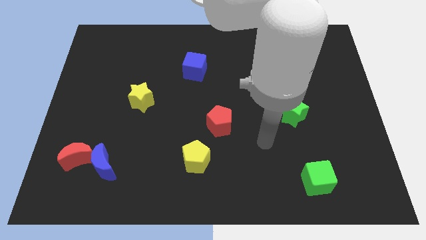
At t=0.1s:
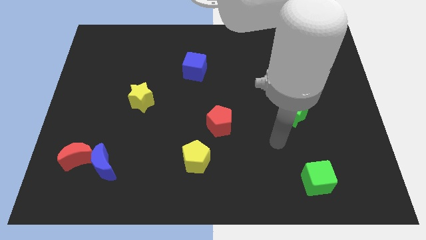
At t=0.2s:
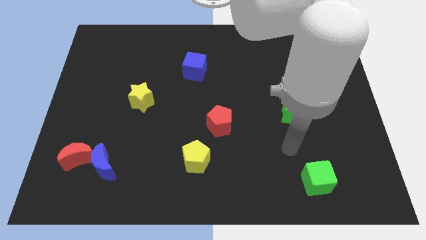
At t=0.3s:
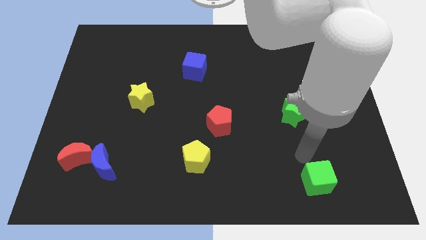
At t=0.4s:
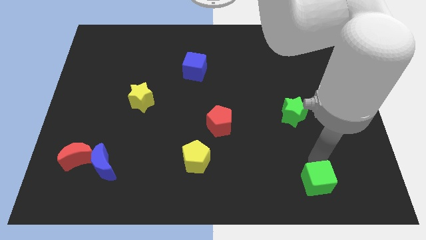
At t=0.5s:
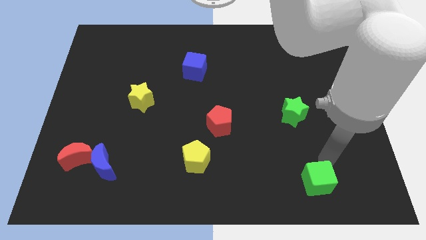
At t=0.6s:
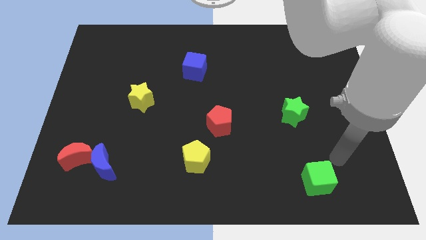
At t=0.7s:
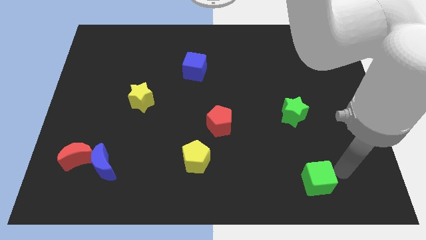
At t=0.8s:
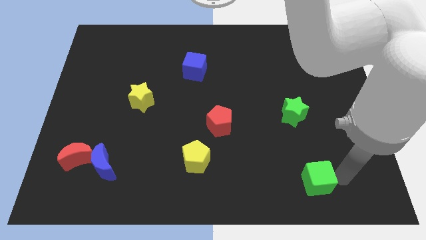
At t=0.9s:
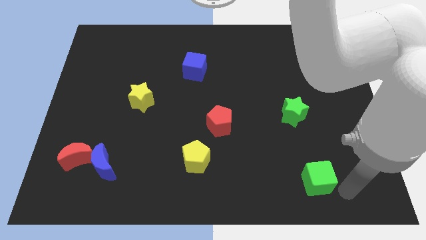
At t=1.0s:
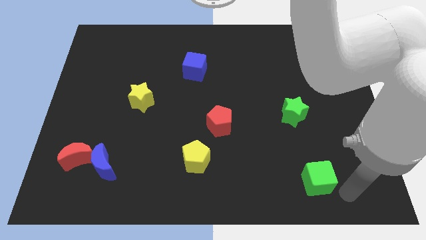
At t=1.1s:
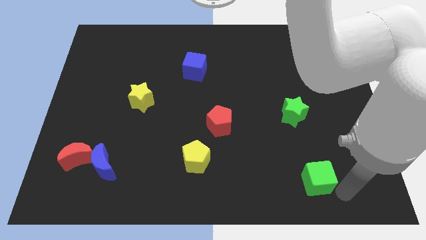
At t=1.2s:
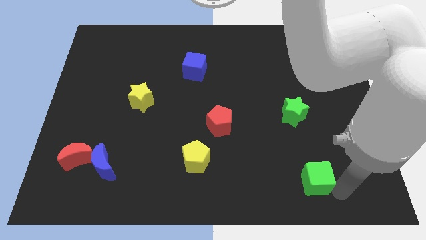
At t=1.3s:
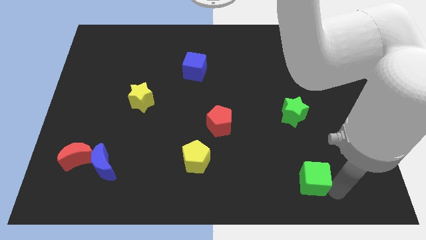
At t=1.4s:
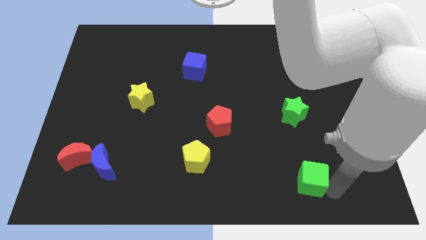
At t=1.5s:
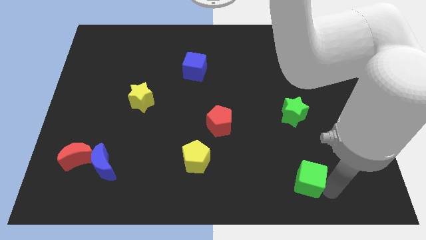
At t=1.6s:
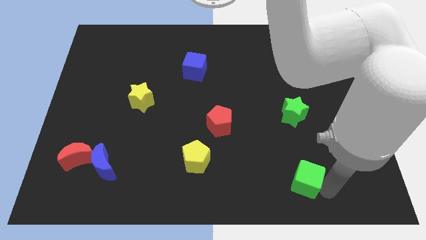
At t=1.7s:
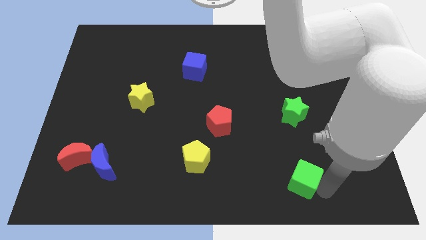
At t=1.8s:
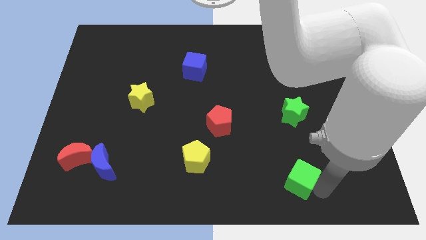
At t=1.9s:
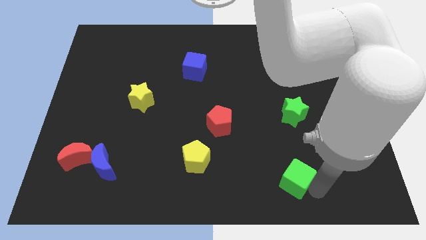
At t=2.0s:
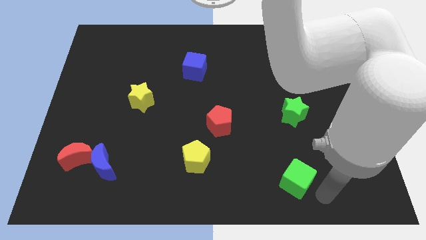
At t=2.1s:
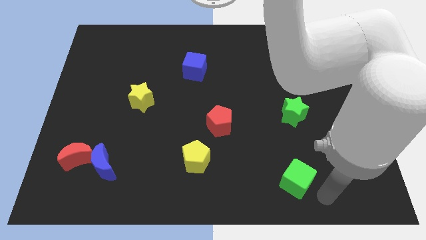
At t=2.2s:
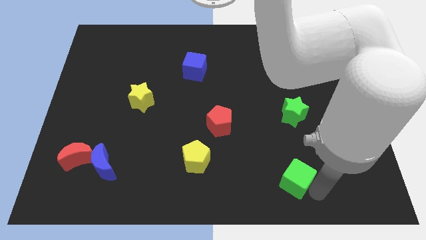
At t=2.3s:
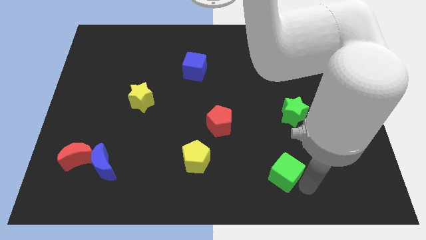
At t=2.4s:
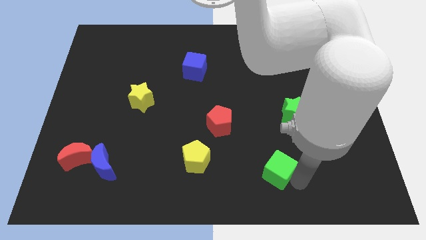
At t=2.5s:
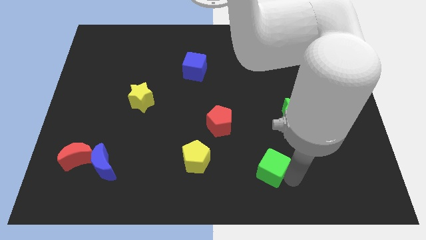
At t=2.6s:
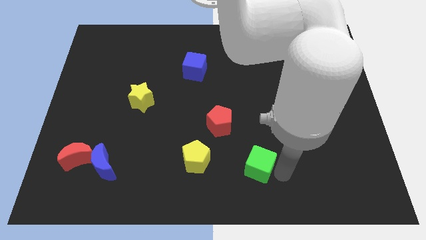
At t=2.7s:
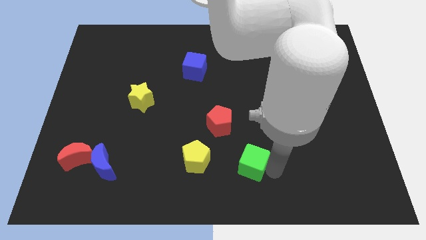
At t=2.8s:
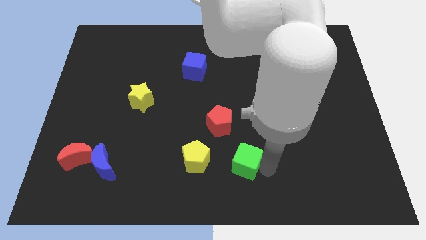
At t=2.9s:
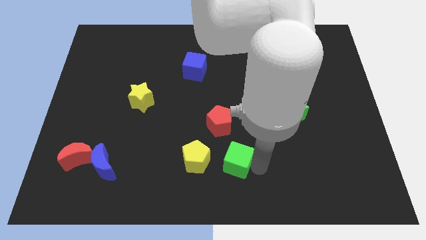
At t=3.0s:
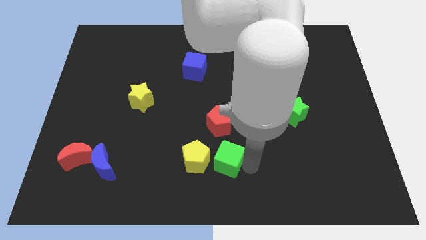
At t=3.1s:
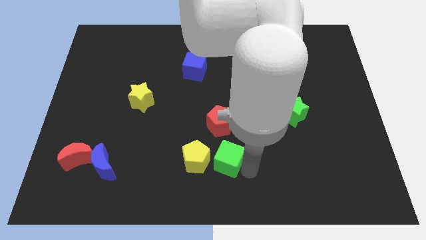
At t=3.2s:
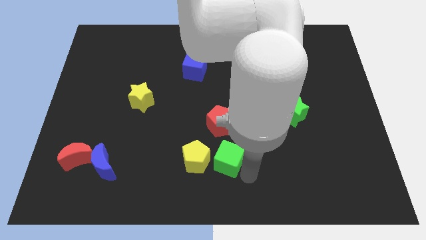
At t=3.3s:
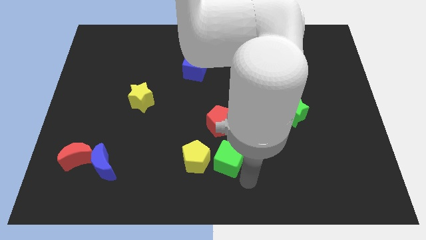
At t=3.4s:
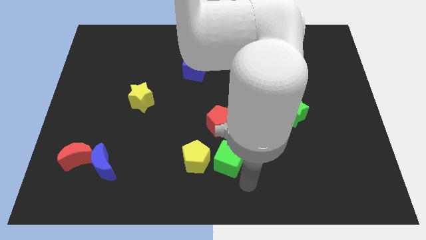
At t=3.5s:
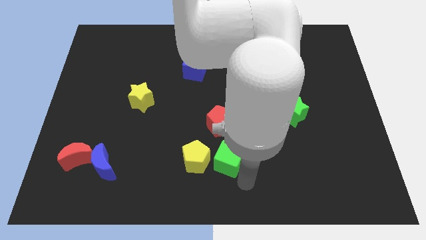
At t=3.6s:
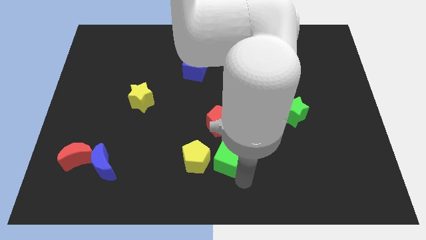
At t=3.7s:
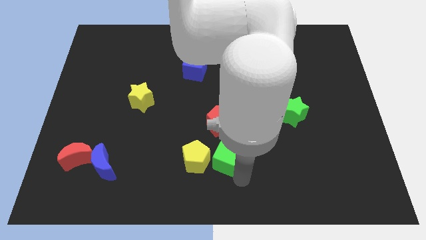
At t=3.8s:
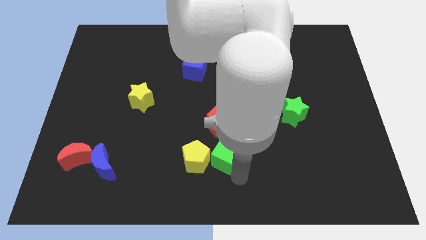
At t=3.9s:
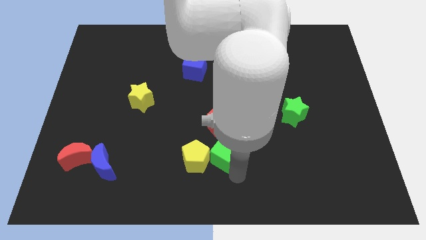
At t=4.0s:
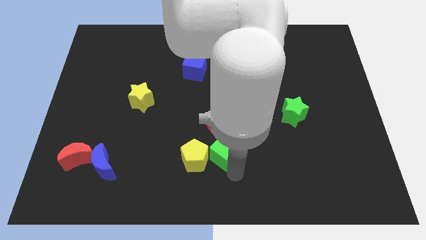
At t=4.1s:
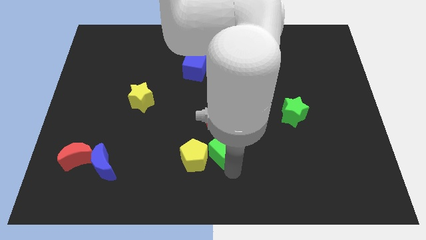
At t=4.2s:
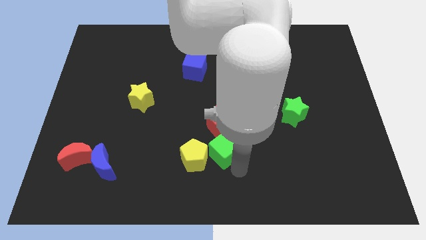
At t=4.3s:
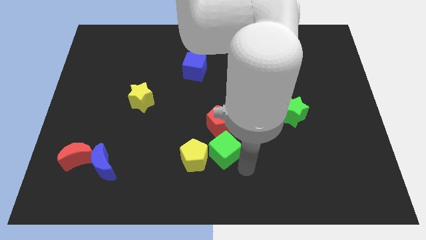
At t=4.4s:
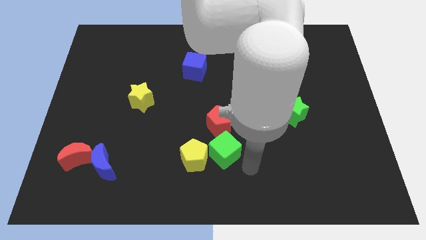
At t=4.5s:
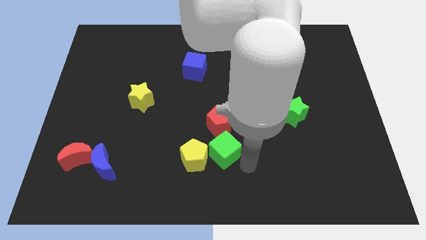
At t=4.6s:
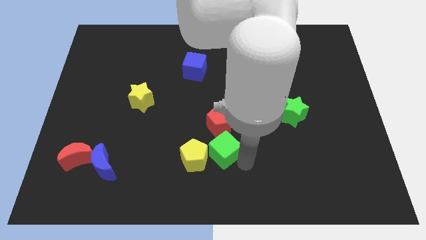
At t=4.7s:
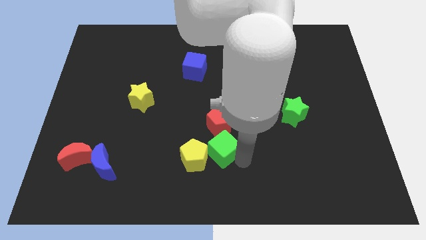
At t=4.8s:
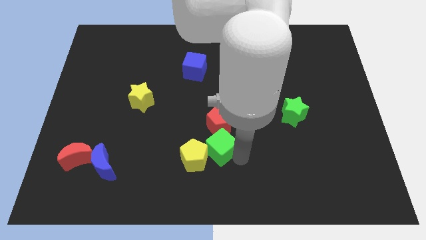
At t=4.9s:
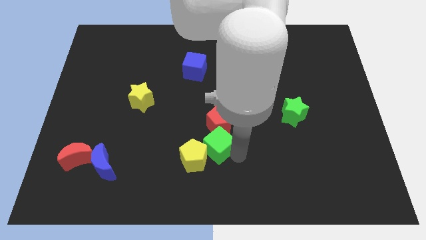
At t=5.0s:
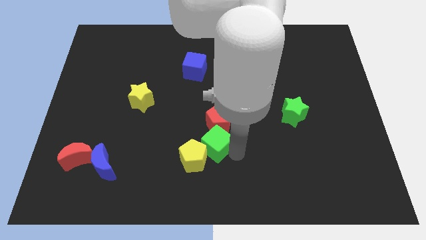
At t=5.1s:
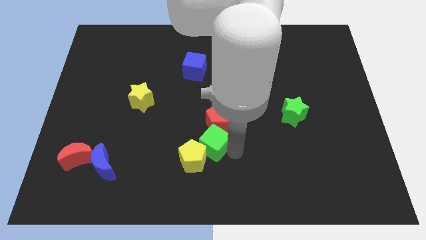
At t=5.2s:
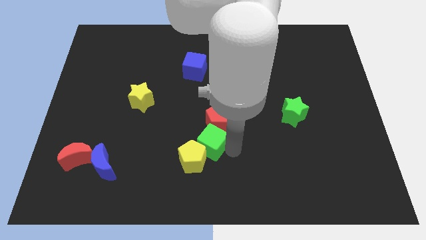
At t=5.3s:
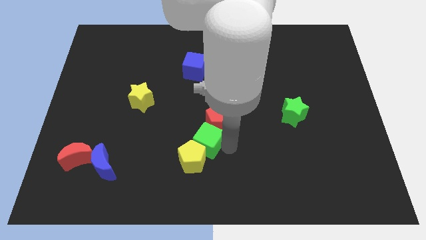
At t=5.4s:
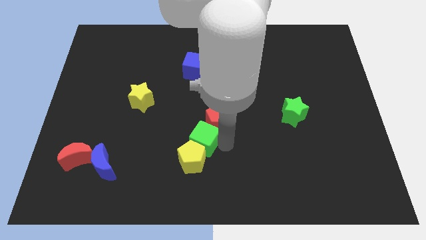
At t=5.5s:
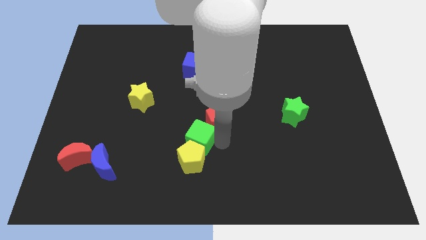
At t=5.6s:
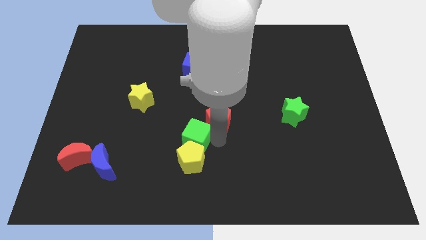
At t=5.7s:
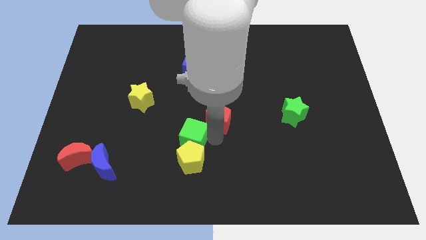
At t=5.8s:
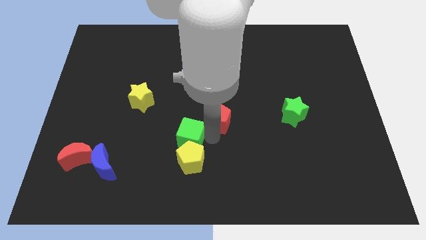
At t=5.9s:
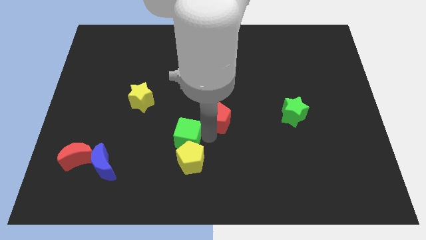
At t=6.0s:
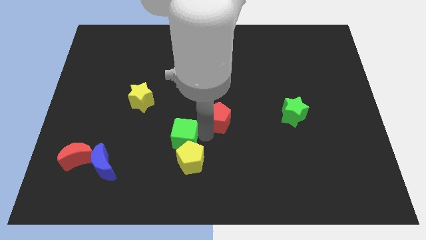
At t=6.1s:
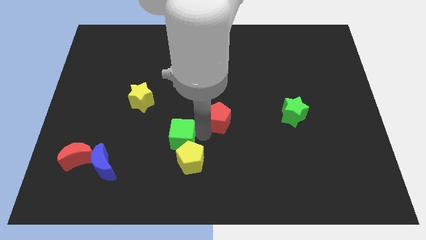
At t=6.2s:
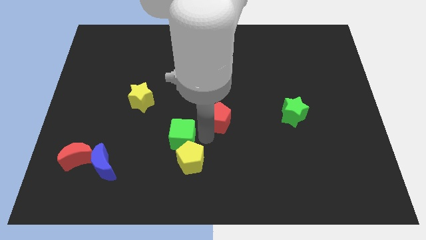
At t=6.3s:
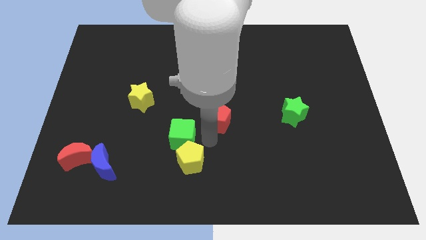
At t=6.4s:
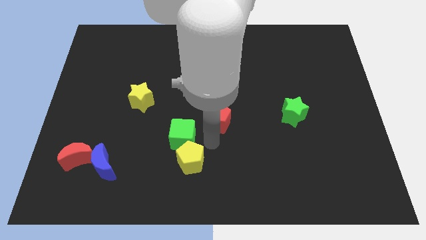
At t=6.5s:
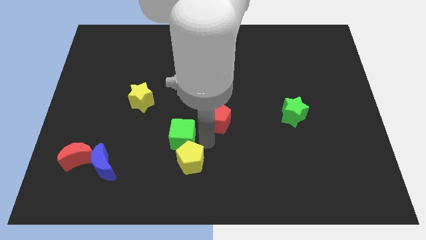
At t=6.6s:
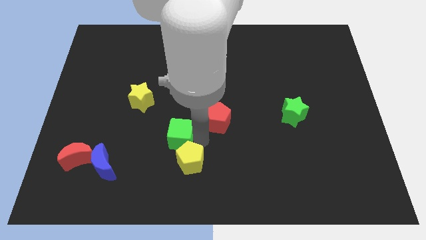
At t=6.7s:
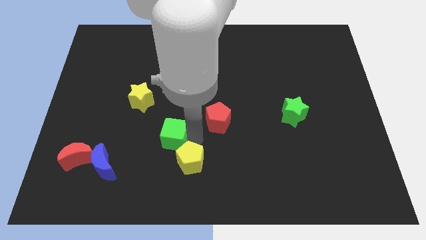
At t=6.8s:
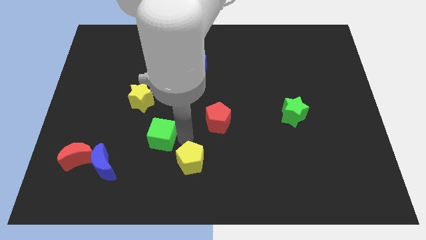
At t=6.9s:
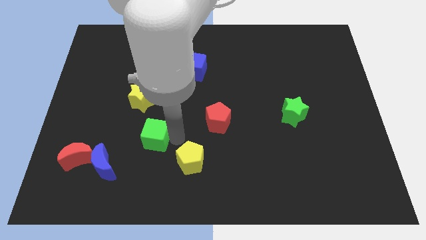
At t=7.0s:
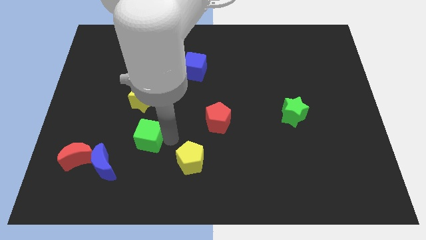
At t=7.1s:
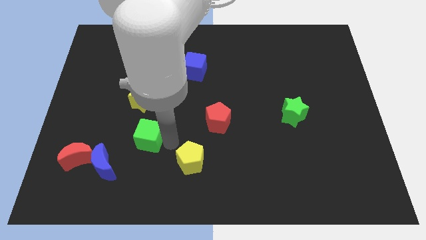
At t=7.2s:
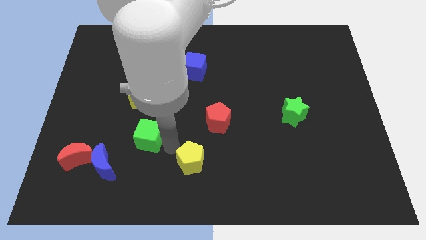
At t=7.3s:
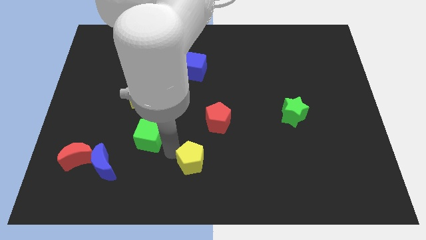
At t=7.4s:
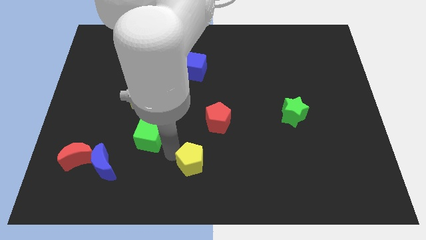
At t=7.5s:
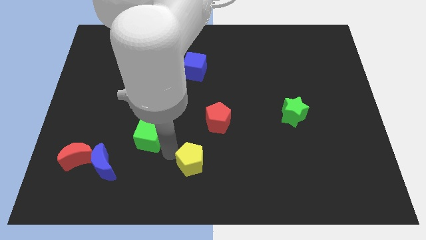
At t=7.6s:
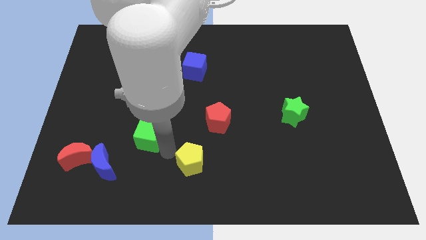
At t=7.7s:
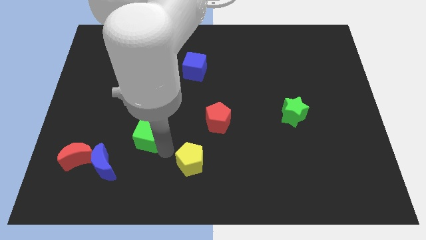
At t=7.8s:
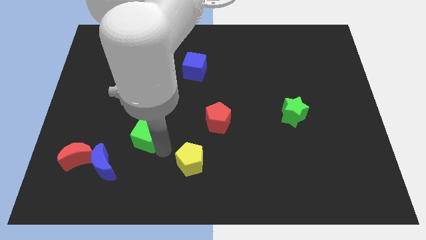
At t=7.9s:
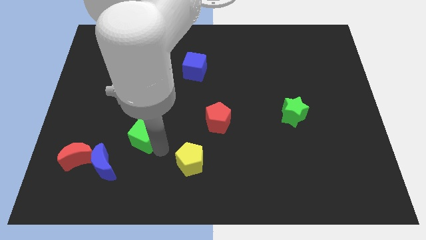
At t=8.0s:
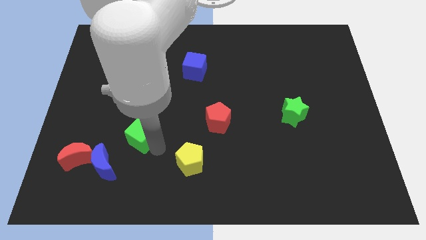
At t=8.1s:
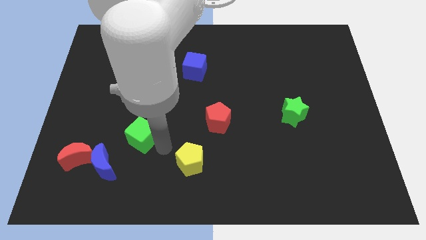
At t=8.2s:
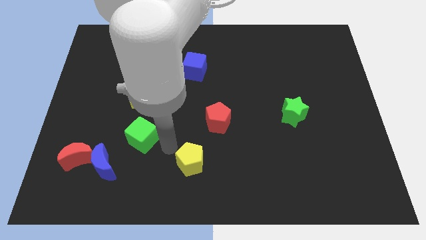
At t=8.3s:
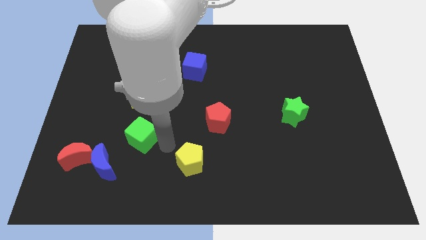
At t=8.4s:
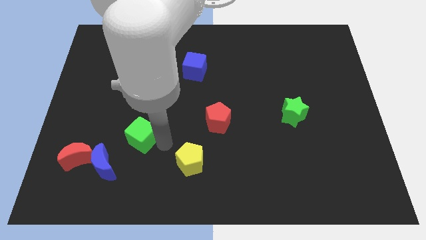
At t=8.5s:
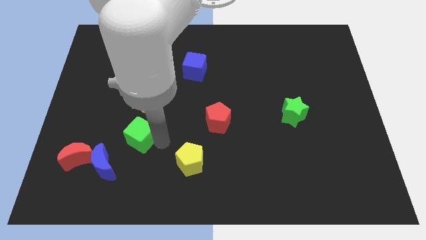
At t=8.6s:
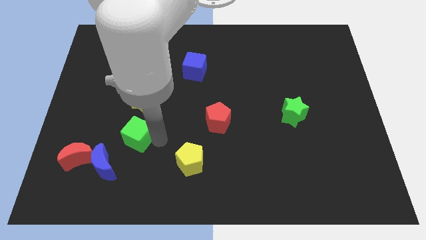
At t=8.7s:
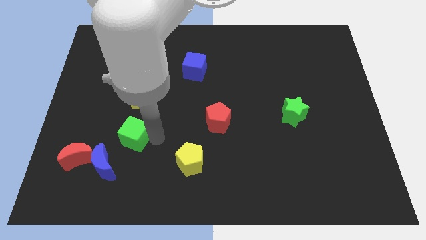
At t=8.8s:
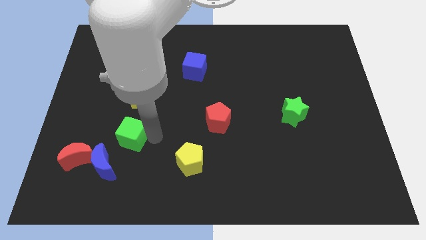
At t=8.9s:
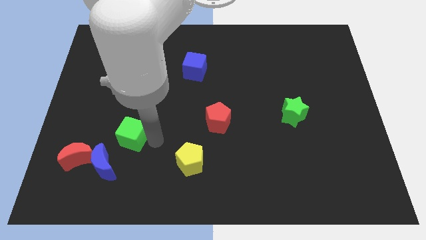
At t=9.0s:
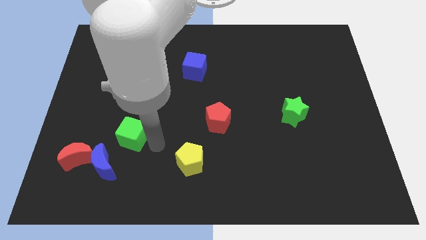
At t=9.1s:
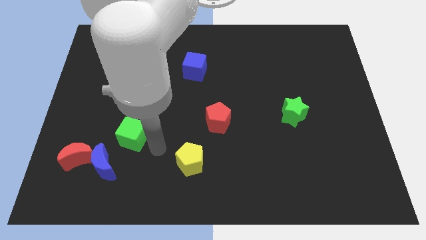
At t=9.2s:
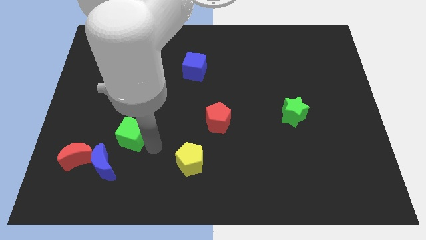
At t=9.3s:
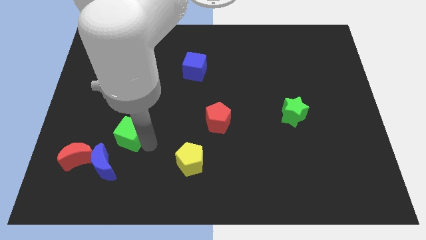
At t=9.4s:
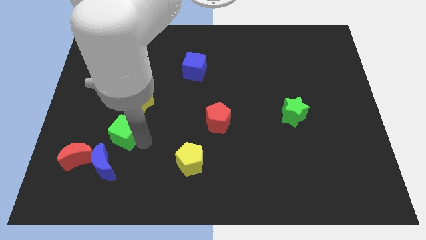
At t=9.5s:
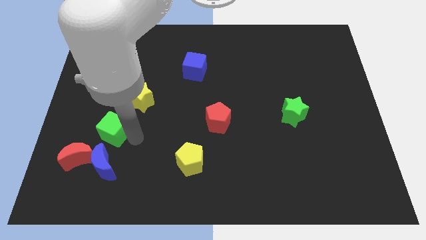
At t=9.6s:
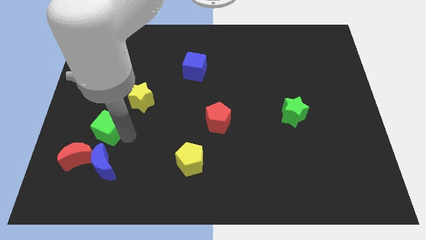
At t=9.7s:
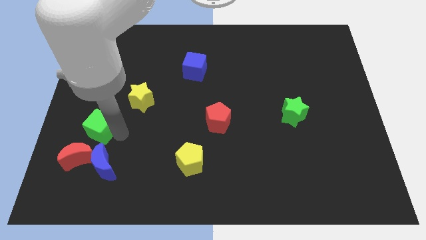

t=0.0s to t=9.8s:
put the green cube to the top of the red moon
